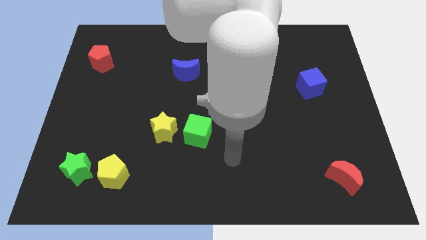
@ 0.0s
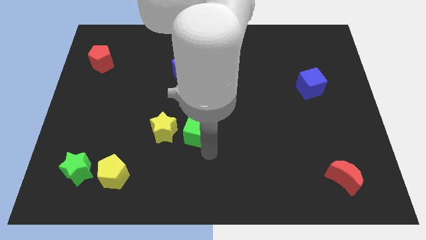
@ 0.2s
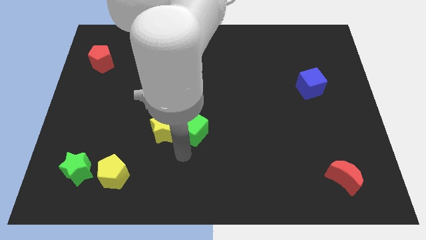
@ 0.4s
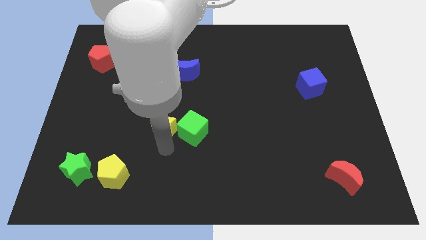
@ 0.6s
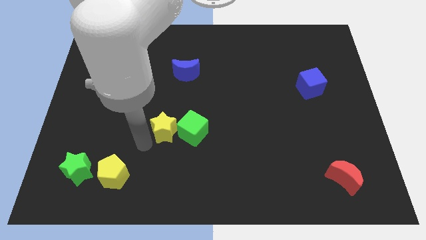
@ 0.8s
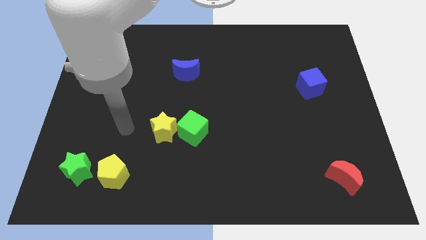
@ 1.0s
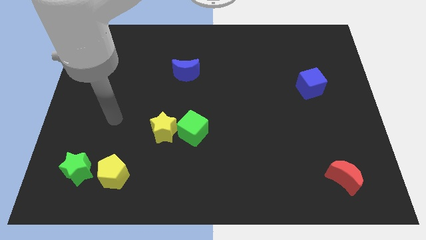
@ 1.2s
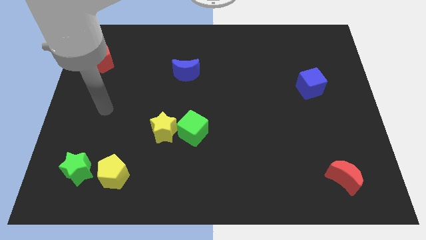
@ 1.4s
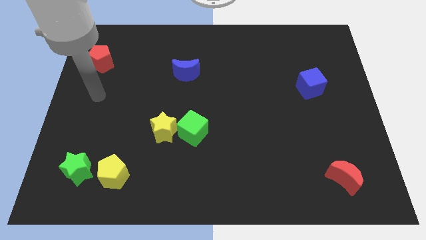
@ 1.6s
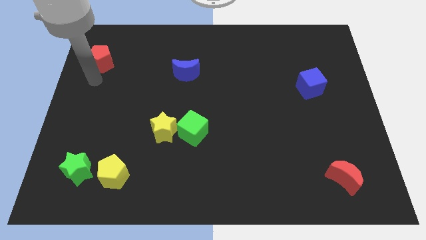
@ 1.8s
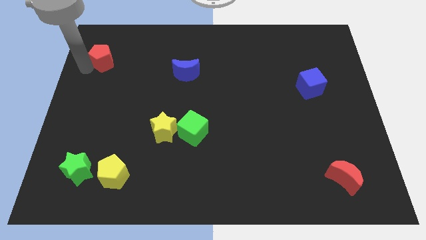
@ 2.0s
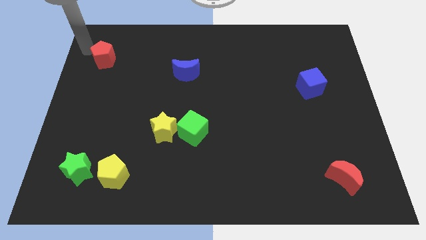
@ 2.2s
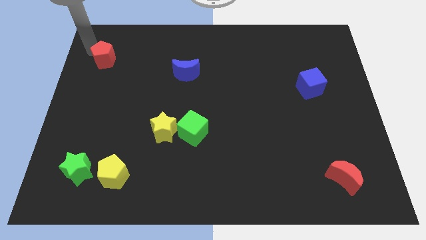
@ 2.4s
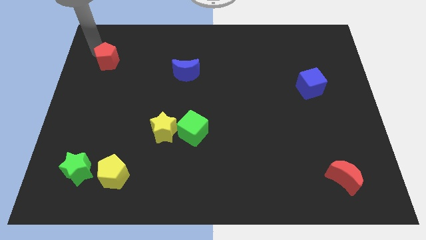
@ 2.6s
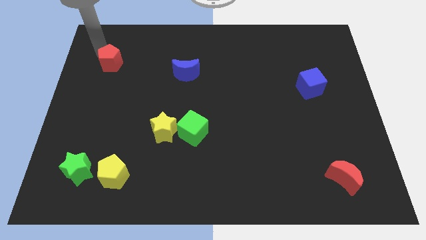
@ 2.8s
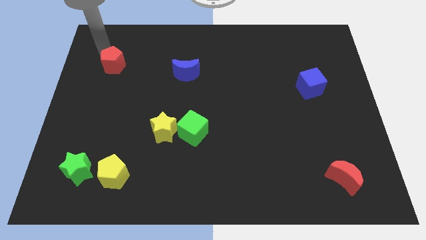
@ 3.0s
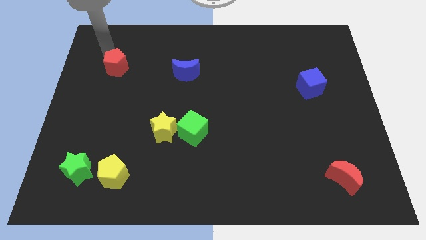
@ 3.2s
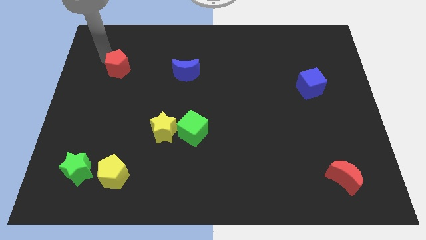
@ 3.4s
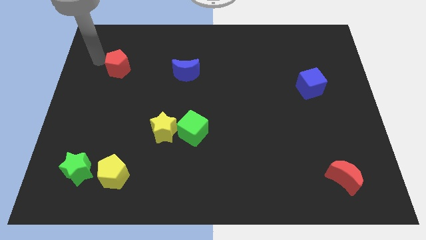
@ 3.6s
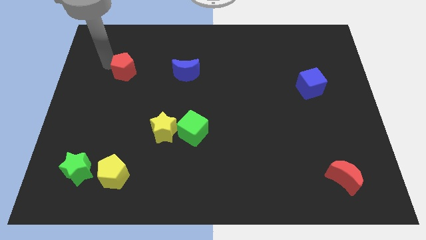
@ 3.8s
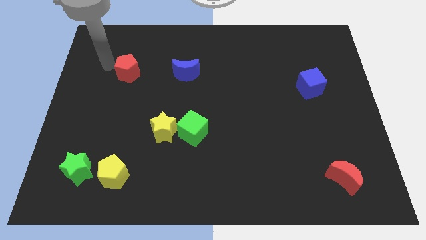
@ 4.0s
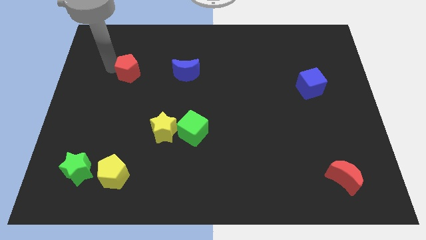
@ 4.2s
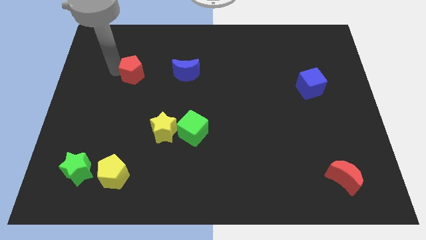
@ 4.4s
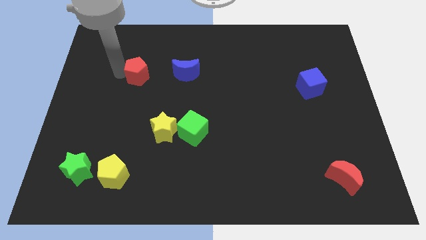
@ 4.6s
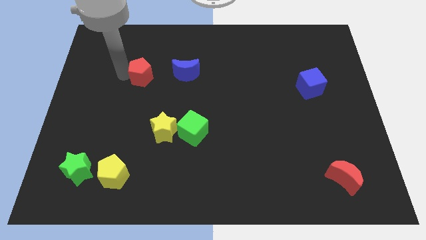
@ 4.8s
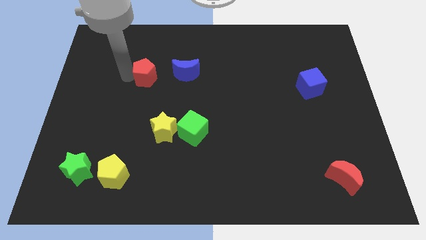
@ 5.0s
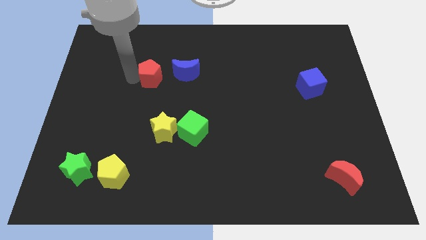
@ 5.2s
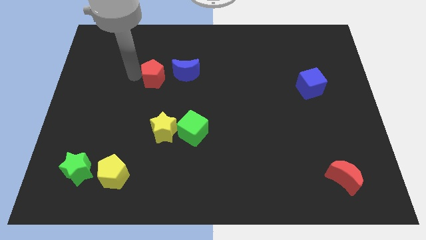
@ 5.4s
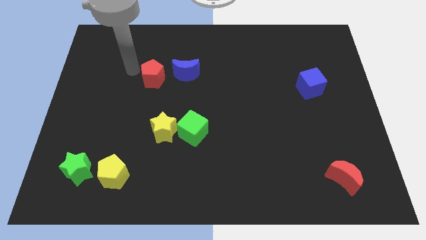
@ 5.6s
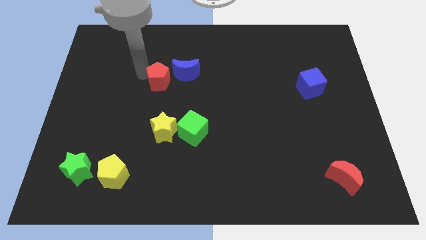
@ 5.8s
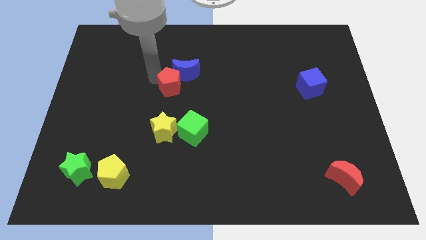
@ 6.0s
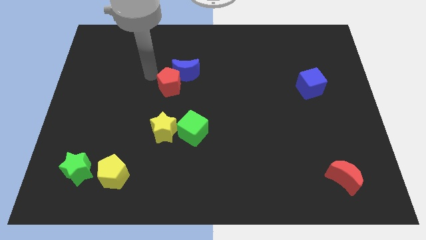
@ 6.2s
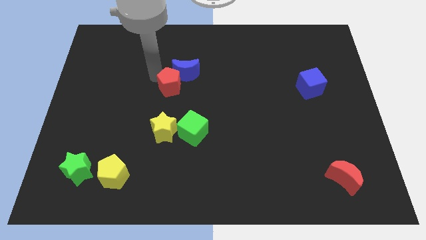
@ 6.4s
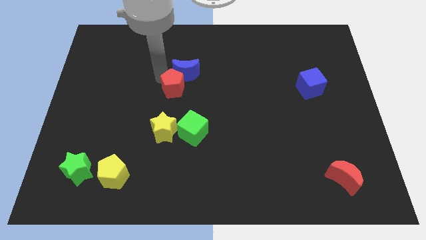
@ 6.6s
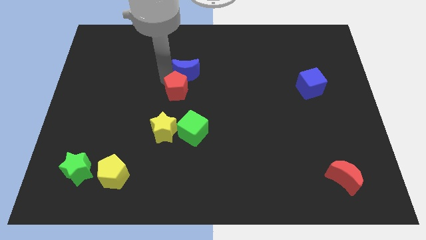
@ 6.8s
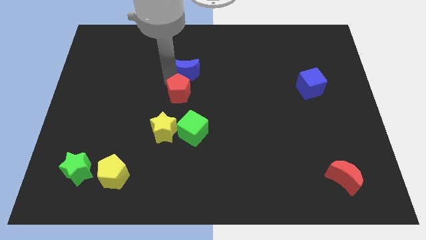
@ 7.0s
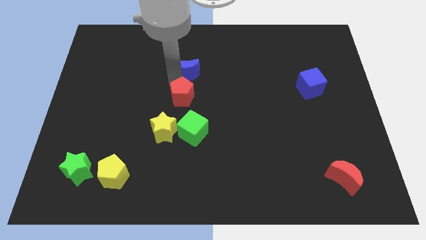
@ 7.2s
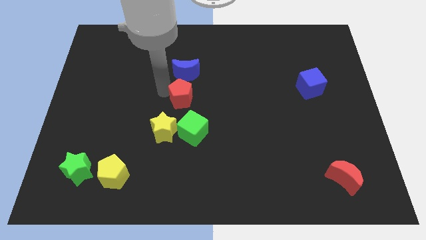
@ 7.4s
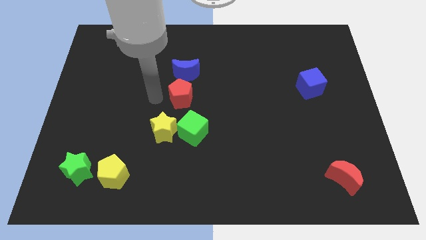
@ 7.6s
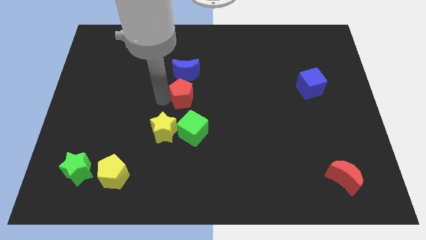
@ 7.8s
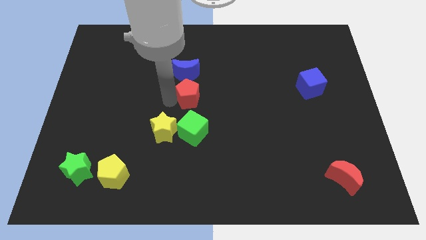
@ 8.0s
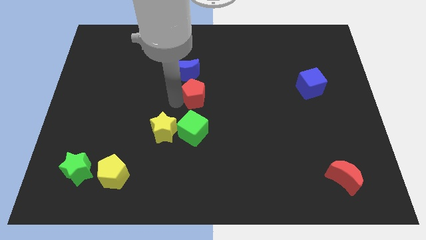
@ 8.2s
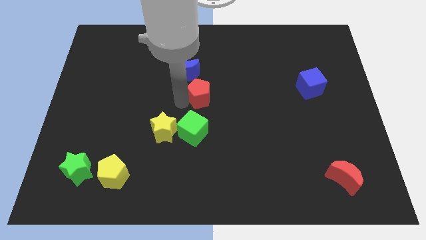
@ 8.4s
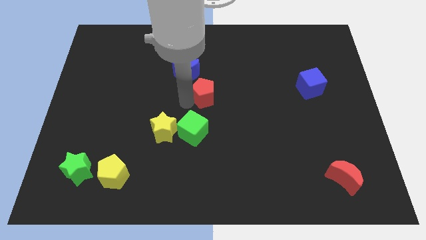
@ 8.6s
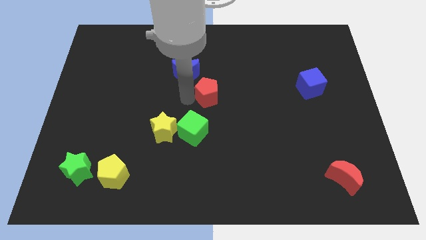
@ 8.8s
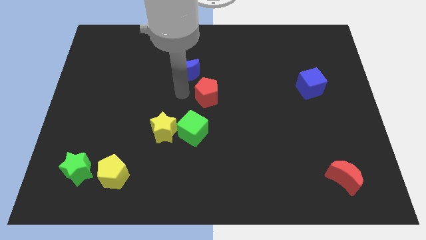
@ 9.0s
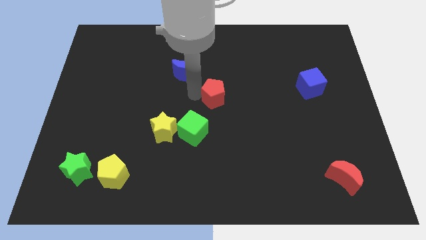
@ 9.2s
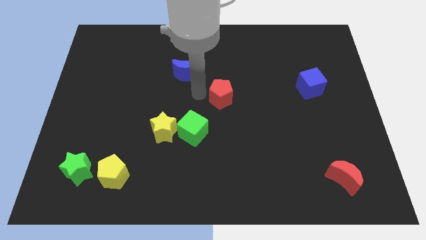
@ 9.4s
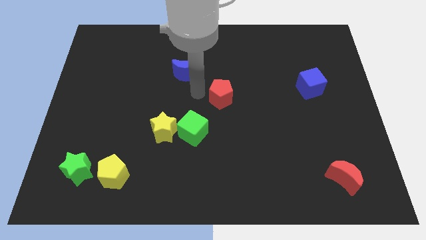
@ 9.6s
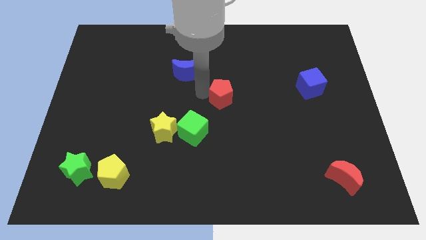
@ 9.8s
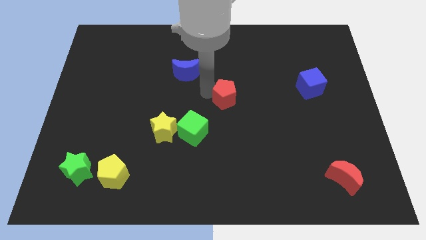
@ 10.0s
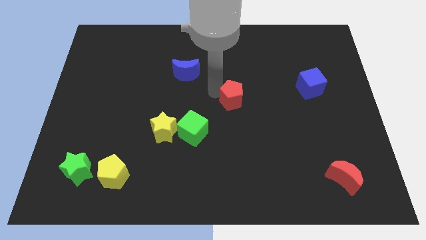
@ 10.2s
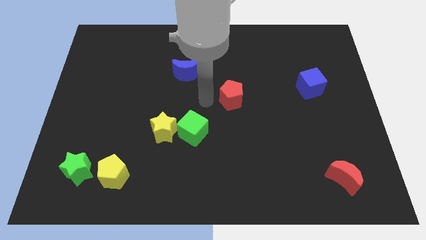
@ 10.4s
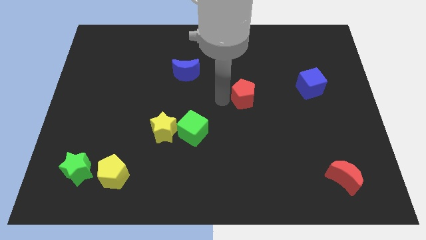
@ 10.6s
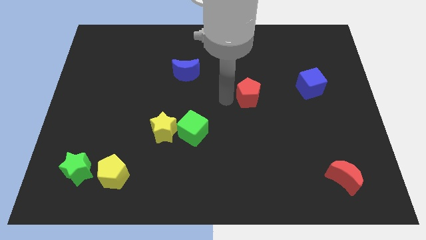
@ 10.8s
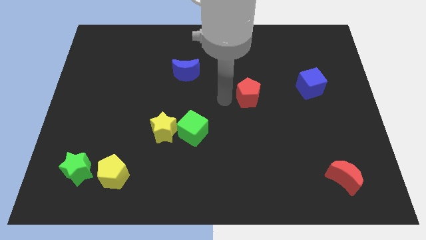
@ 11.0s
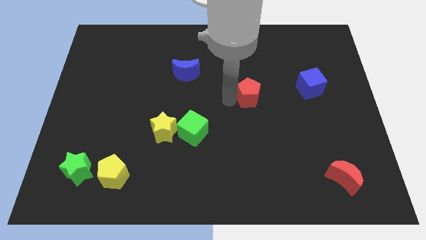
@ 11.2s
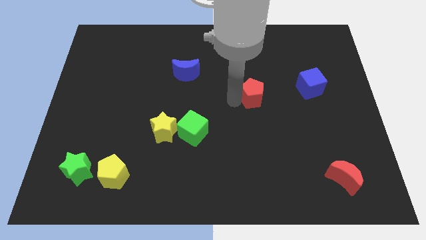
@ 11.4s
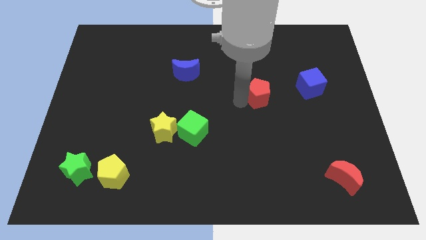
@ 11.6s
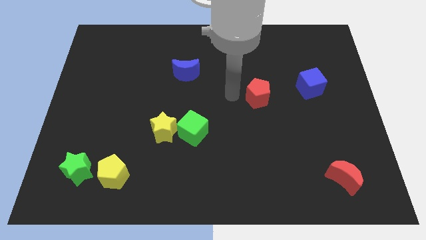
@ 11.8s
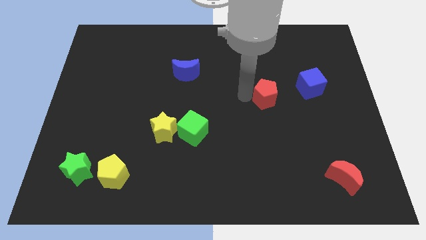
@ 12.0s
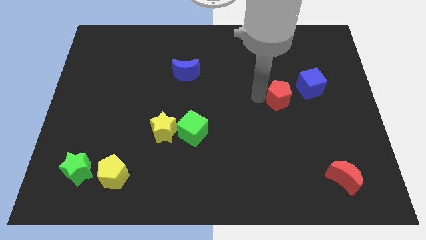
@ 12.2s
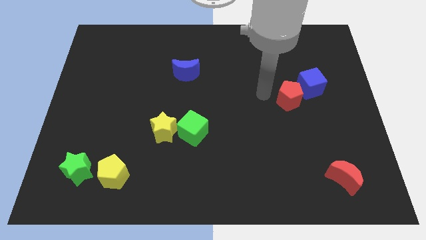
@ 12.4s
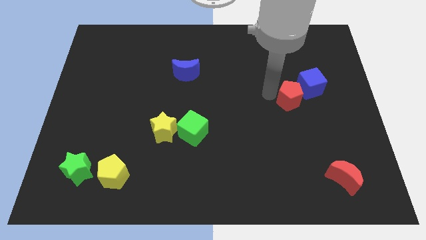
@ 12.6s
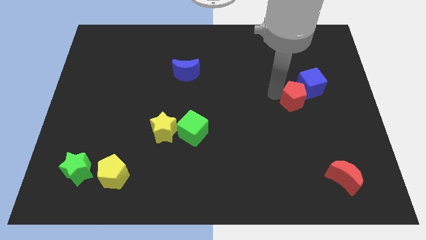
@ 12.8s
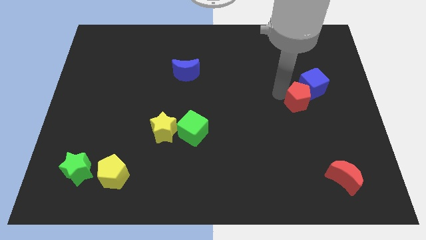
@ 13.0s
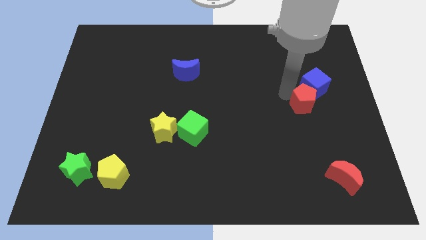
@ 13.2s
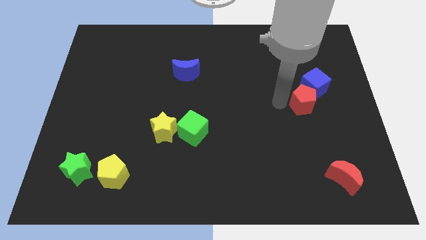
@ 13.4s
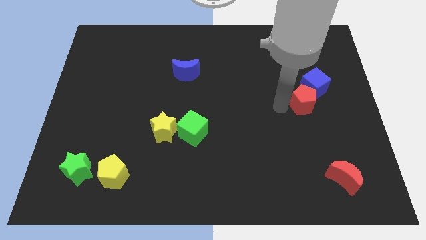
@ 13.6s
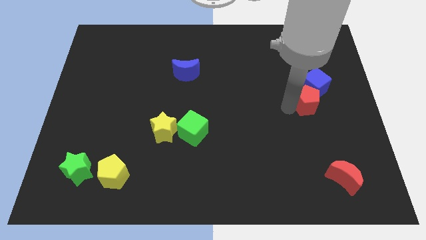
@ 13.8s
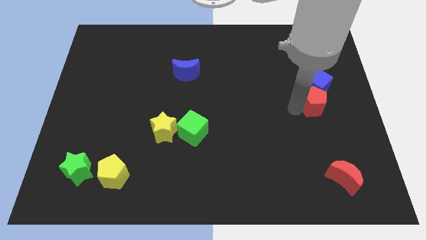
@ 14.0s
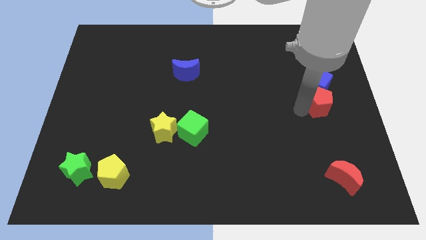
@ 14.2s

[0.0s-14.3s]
put the red pentagon to the center right
